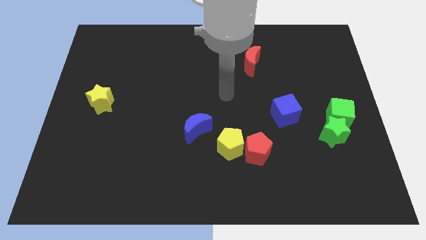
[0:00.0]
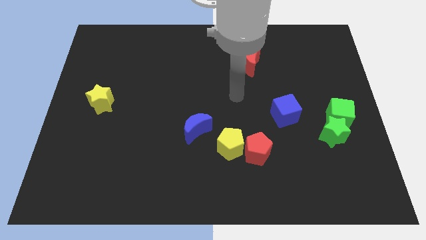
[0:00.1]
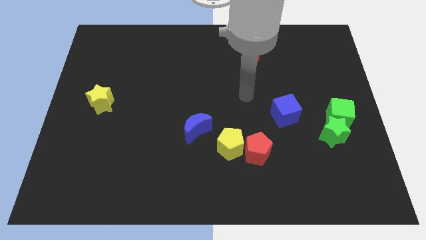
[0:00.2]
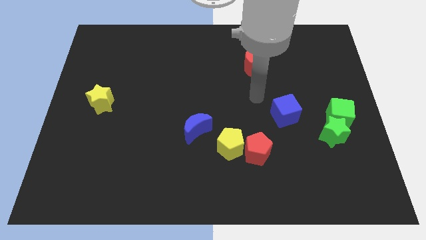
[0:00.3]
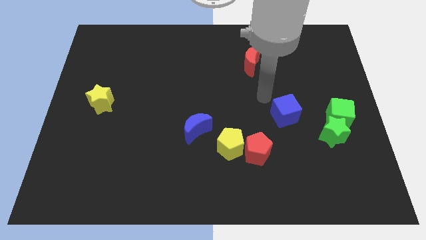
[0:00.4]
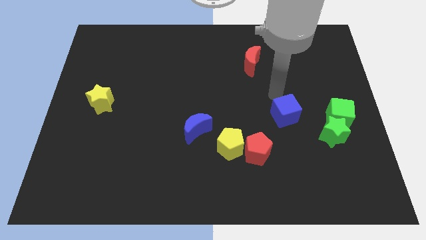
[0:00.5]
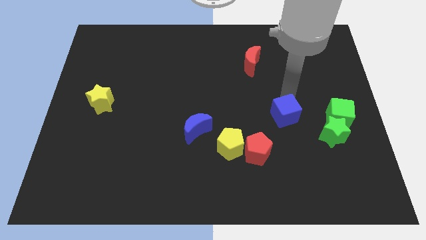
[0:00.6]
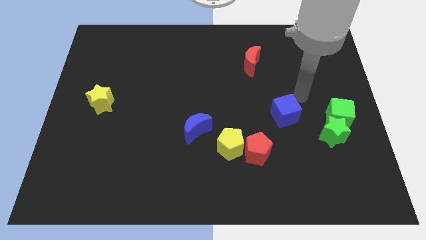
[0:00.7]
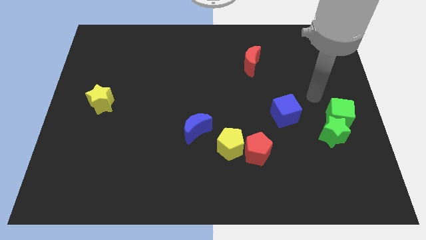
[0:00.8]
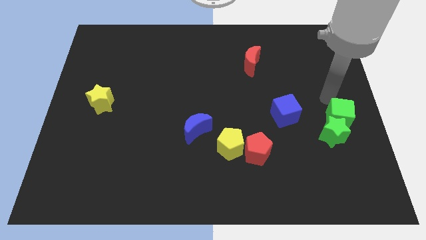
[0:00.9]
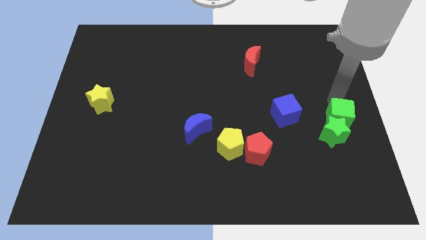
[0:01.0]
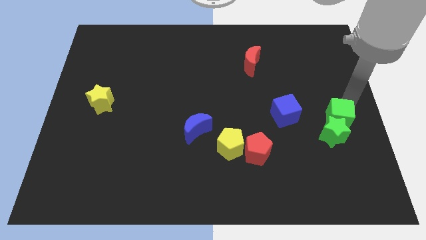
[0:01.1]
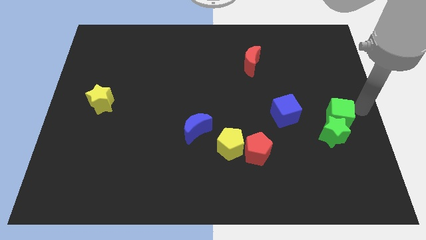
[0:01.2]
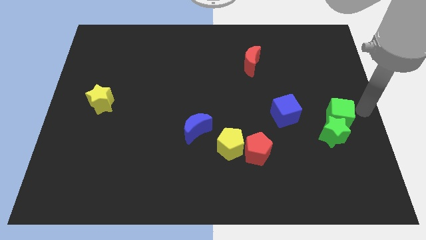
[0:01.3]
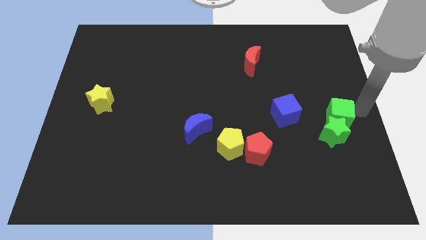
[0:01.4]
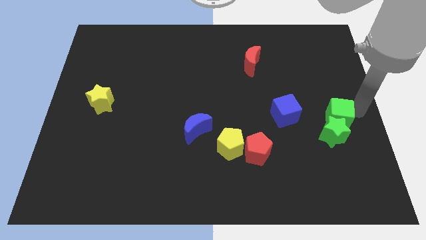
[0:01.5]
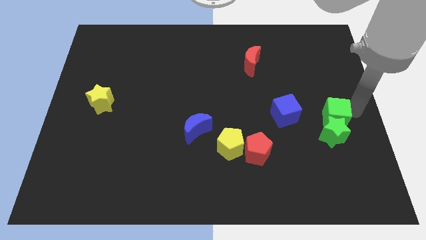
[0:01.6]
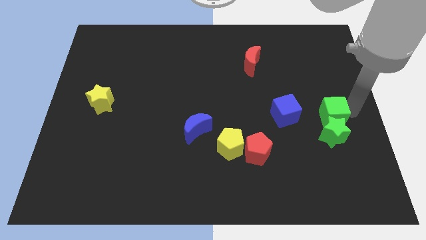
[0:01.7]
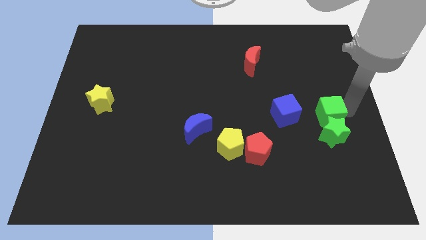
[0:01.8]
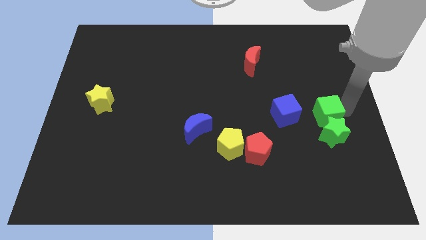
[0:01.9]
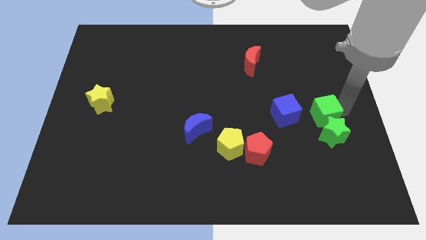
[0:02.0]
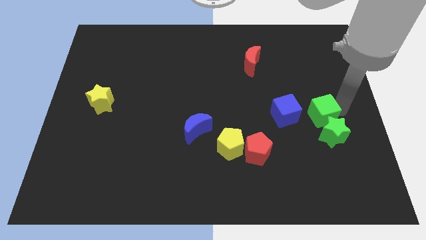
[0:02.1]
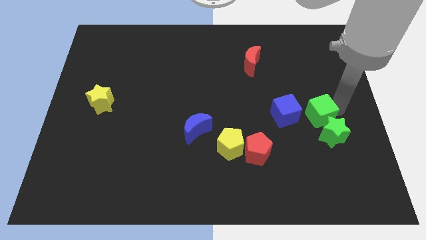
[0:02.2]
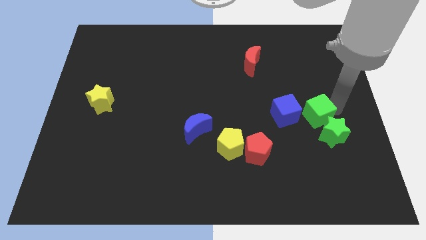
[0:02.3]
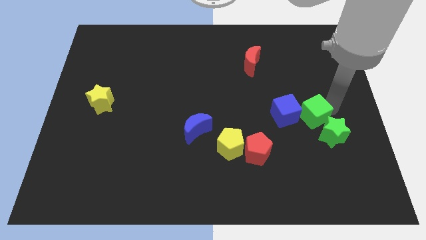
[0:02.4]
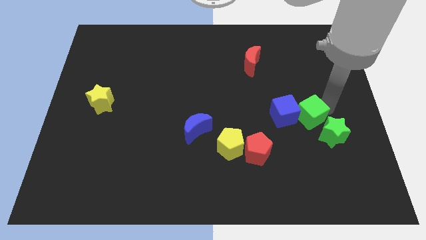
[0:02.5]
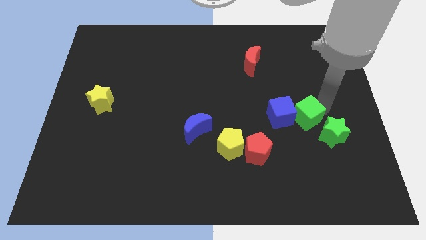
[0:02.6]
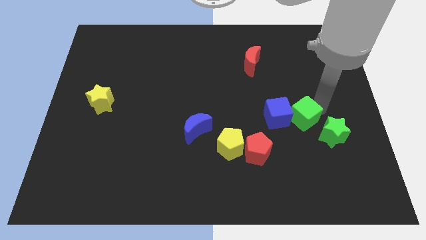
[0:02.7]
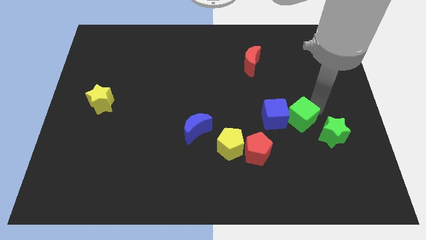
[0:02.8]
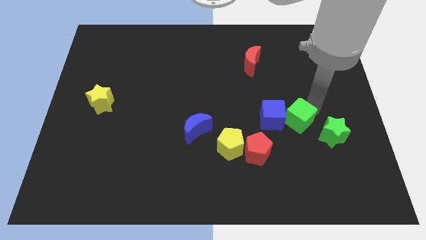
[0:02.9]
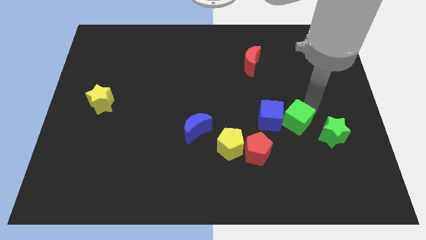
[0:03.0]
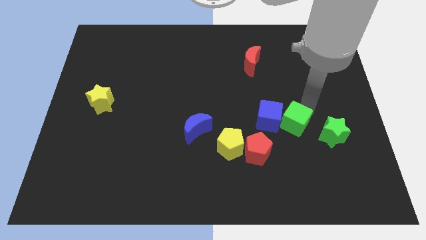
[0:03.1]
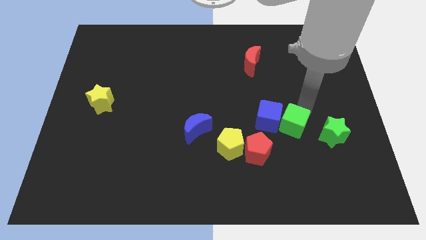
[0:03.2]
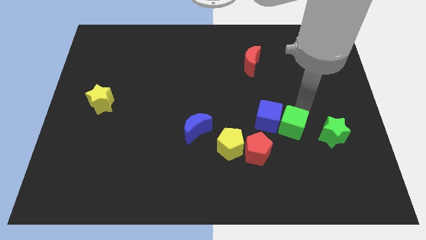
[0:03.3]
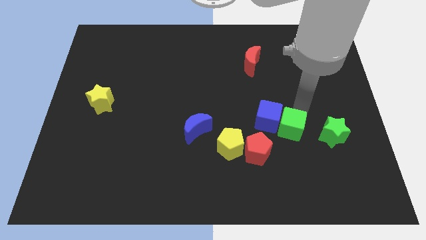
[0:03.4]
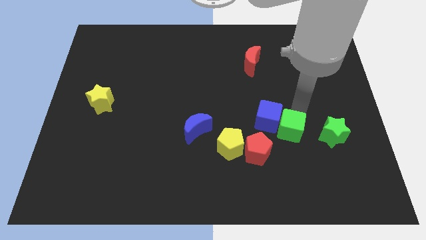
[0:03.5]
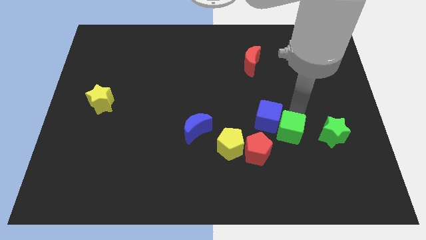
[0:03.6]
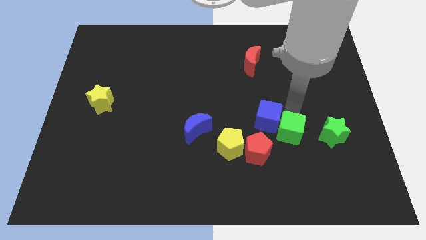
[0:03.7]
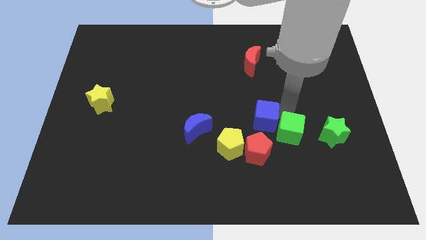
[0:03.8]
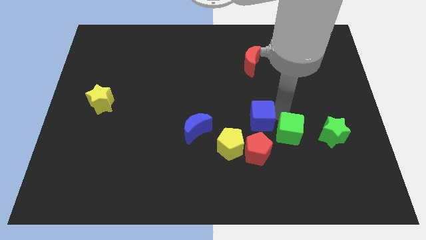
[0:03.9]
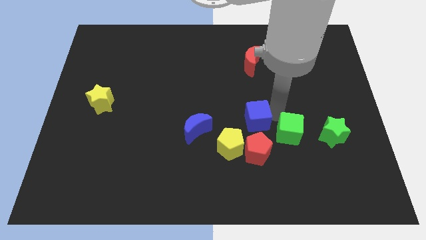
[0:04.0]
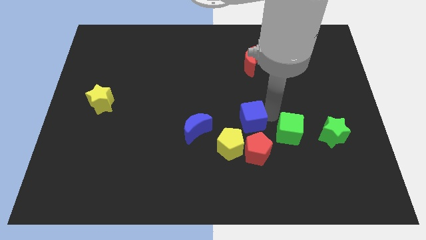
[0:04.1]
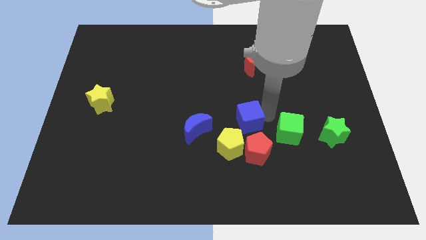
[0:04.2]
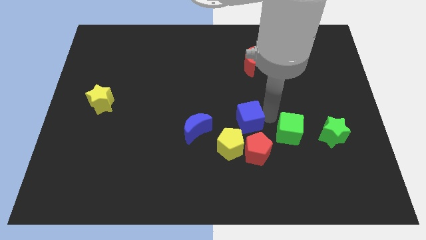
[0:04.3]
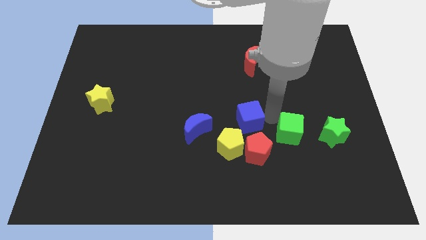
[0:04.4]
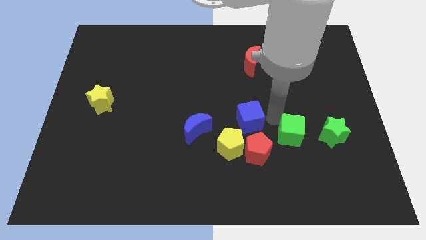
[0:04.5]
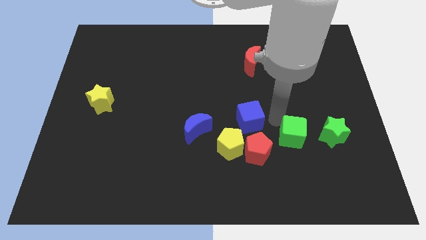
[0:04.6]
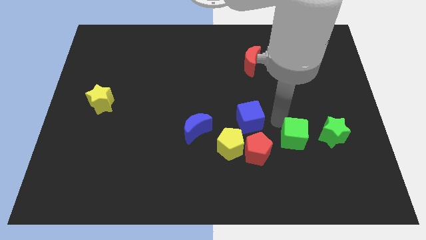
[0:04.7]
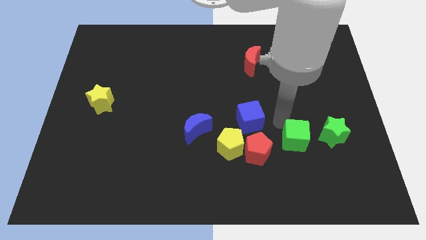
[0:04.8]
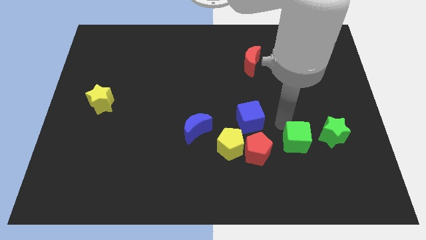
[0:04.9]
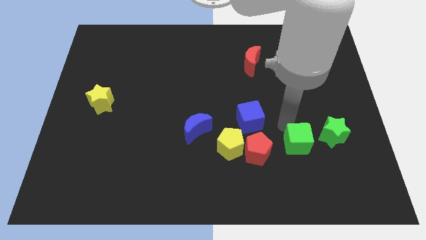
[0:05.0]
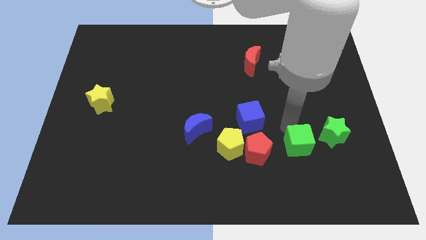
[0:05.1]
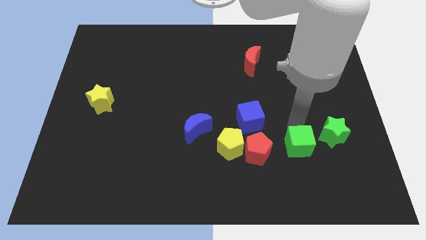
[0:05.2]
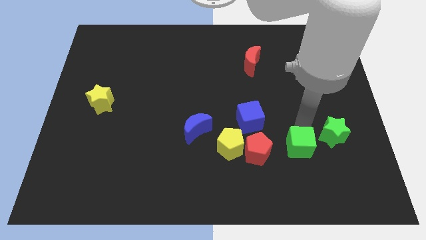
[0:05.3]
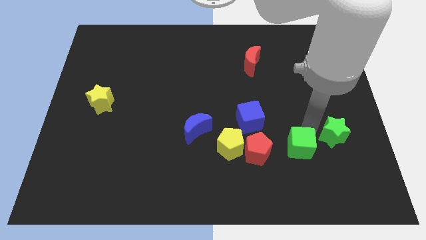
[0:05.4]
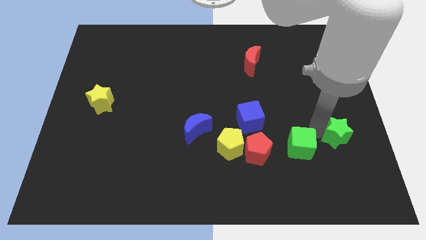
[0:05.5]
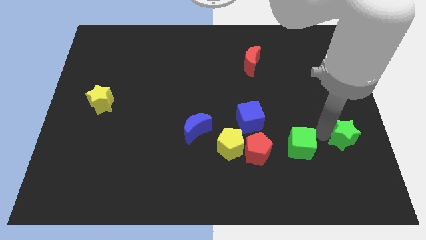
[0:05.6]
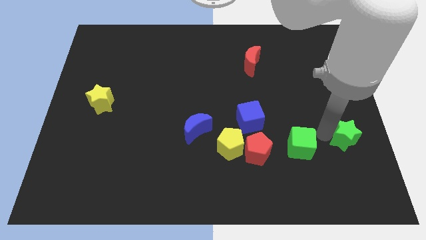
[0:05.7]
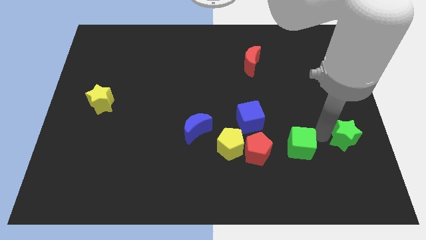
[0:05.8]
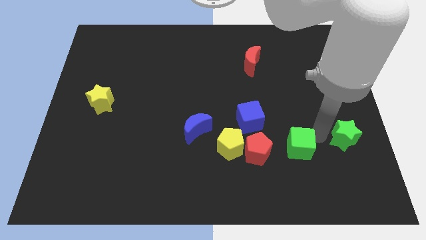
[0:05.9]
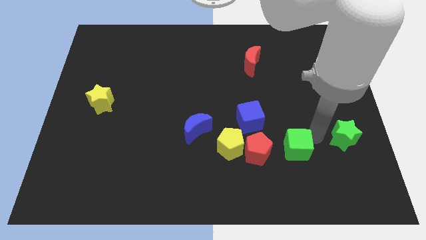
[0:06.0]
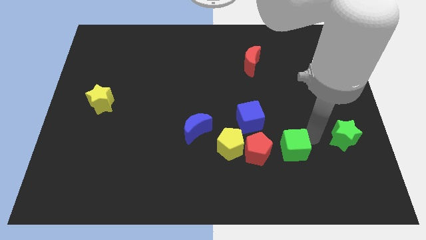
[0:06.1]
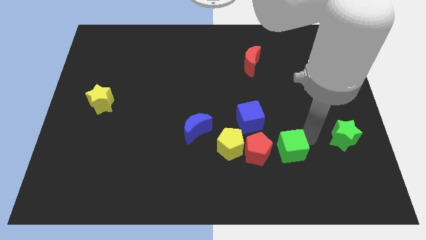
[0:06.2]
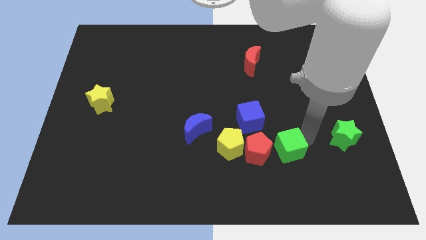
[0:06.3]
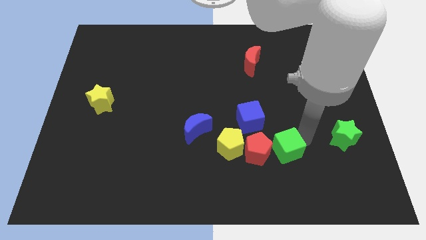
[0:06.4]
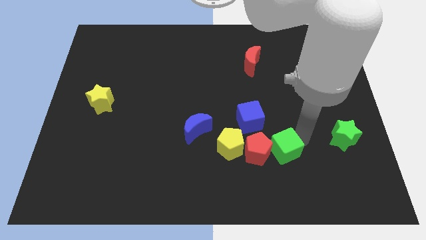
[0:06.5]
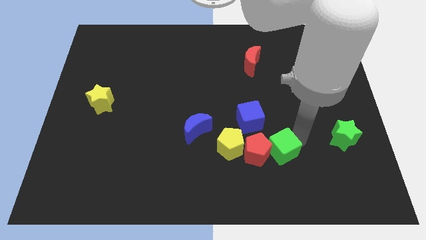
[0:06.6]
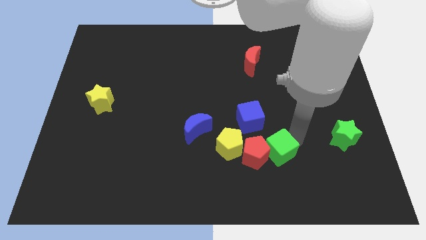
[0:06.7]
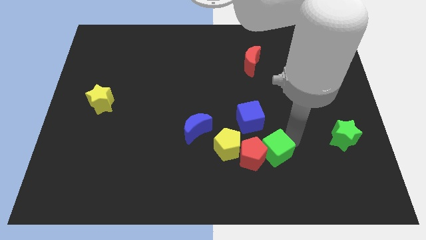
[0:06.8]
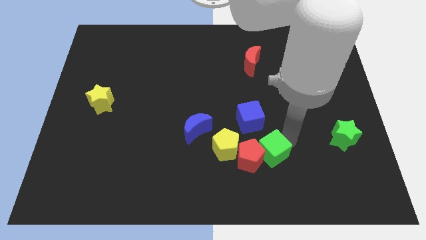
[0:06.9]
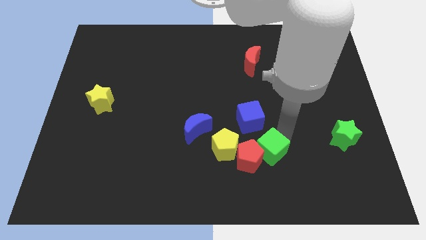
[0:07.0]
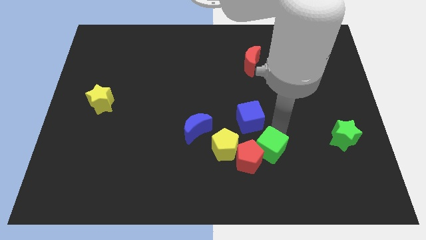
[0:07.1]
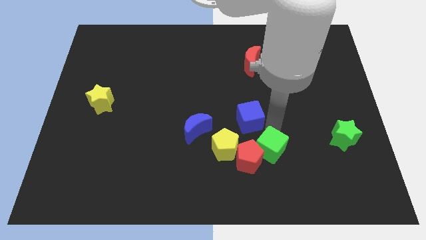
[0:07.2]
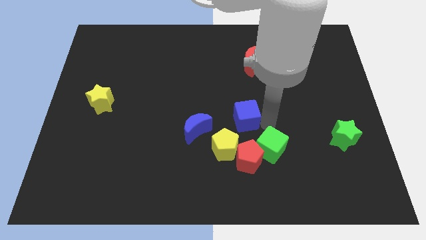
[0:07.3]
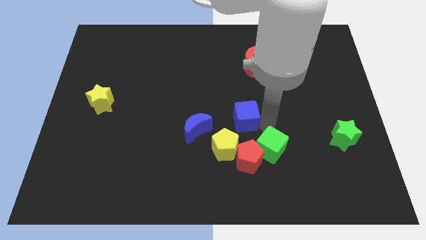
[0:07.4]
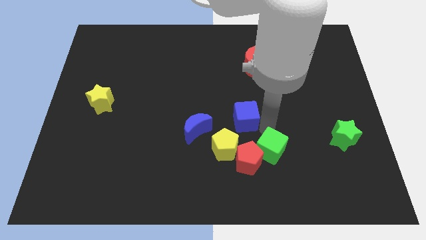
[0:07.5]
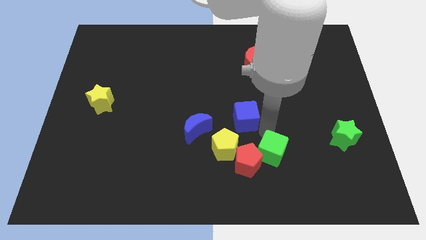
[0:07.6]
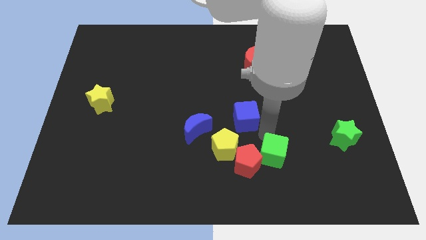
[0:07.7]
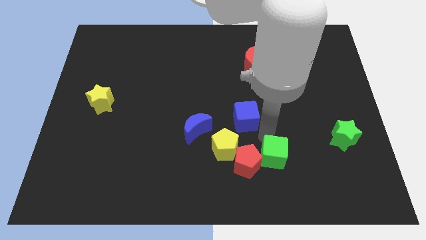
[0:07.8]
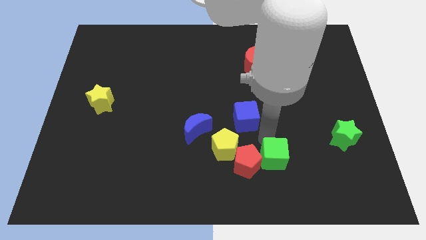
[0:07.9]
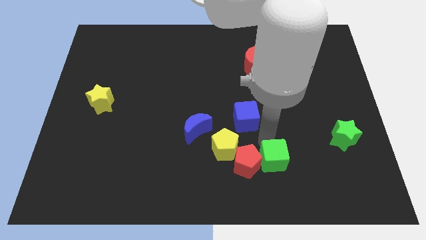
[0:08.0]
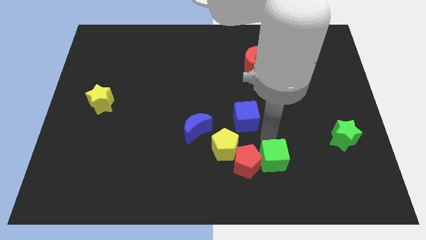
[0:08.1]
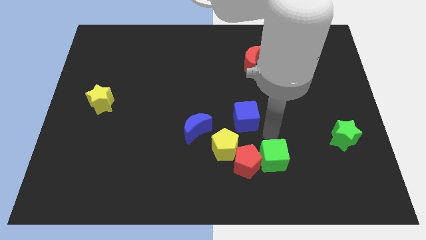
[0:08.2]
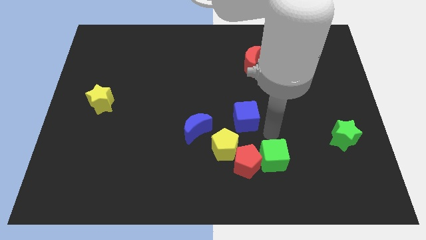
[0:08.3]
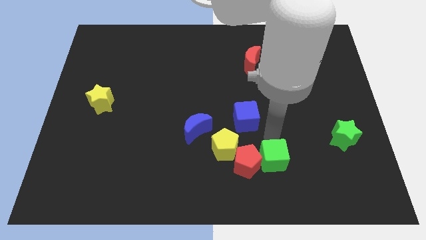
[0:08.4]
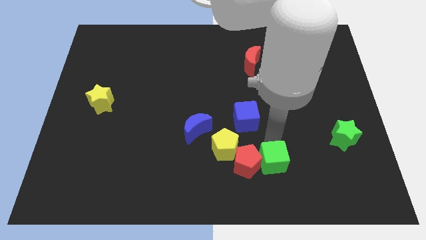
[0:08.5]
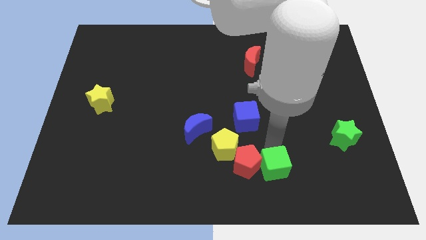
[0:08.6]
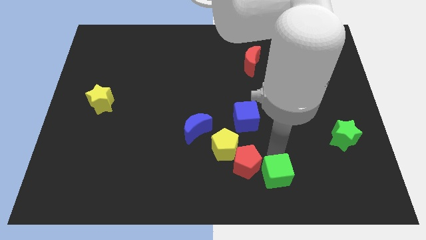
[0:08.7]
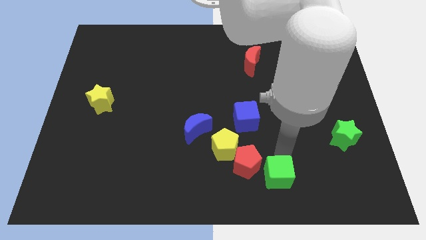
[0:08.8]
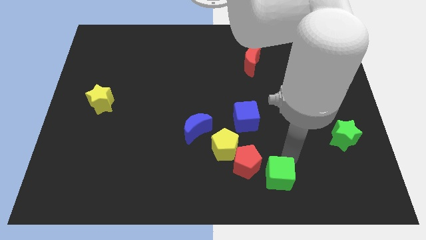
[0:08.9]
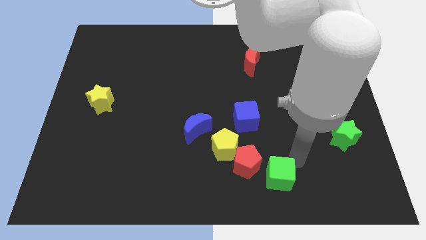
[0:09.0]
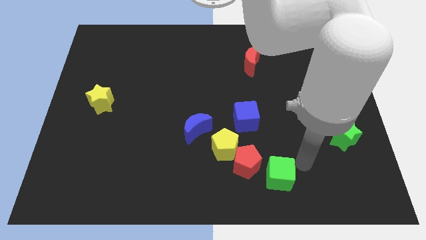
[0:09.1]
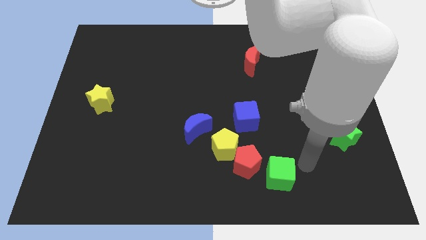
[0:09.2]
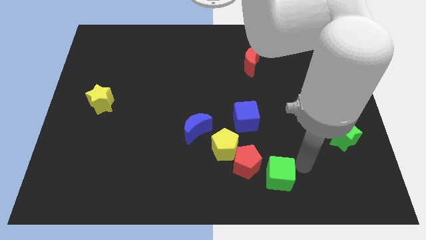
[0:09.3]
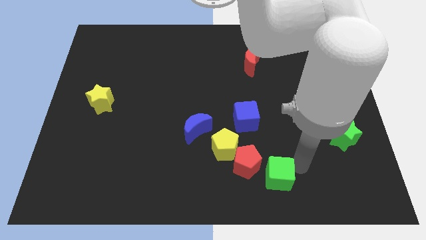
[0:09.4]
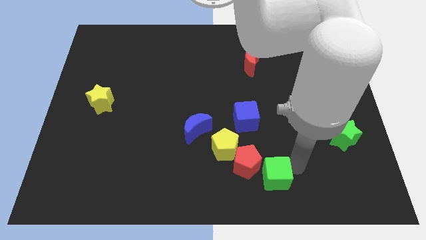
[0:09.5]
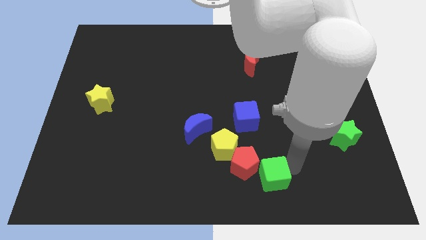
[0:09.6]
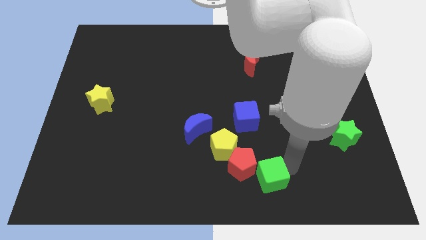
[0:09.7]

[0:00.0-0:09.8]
push the green cube to the bottom
